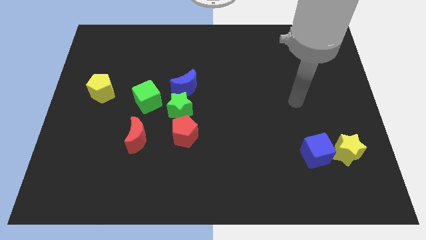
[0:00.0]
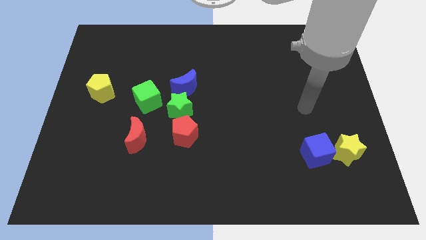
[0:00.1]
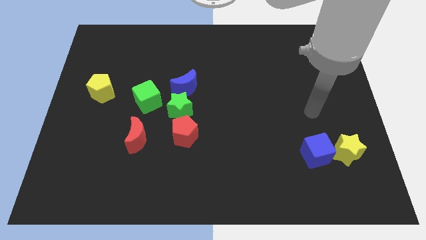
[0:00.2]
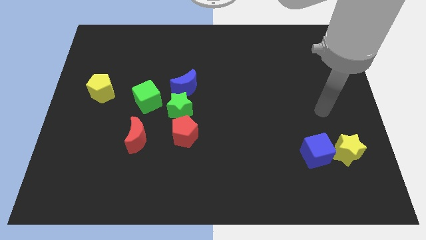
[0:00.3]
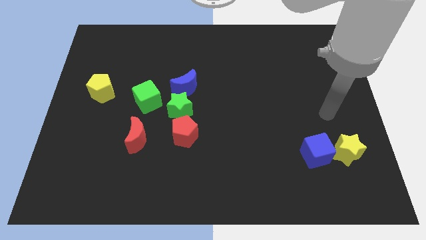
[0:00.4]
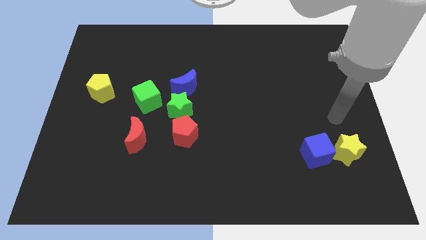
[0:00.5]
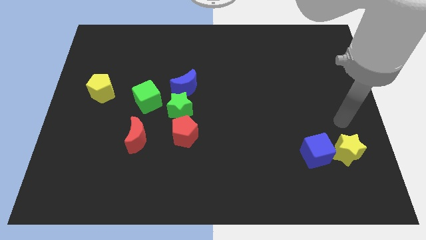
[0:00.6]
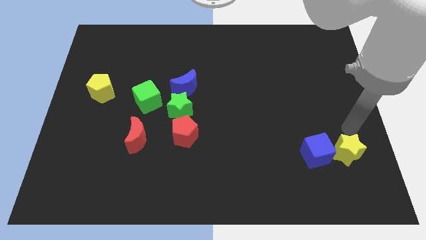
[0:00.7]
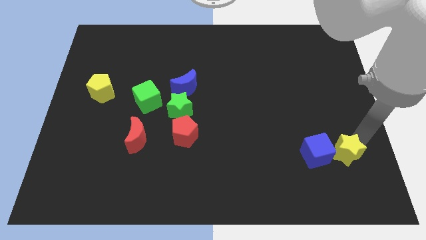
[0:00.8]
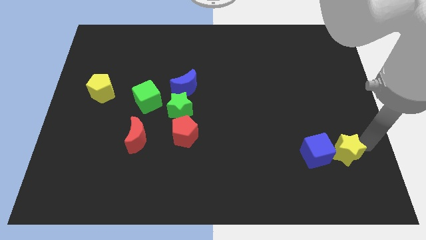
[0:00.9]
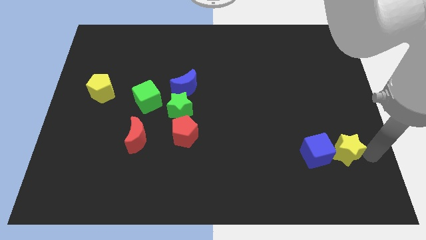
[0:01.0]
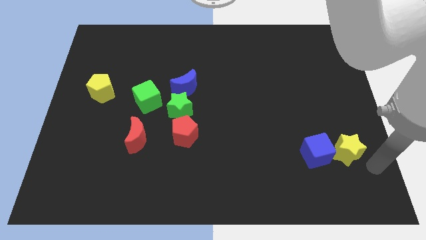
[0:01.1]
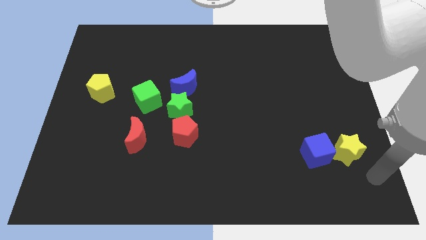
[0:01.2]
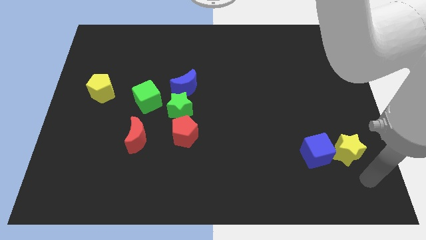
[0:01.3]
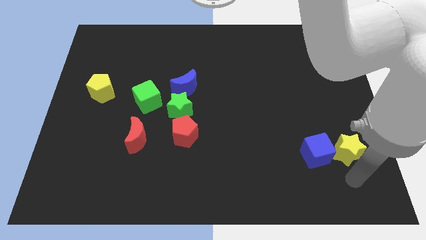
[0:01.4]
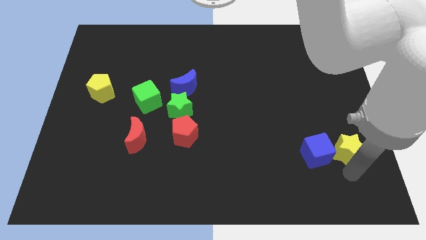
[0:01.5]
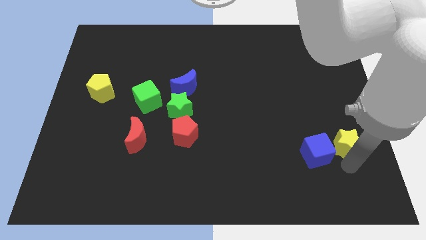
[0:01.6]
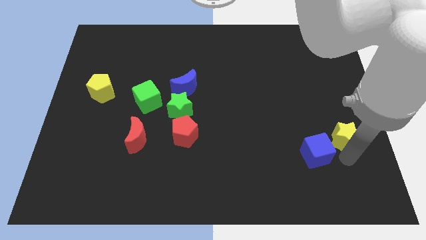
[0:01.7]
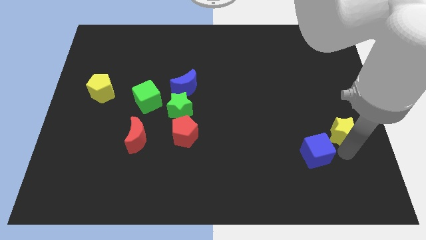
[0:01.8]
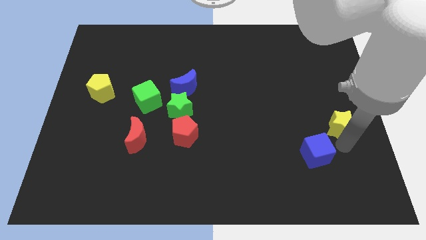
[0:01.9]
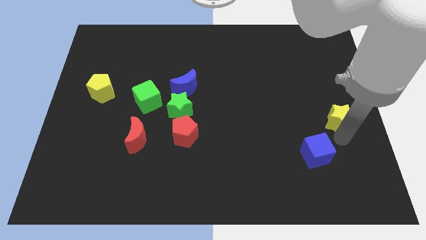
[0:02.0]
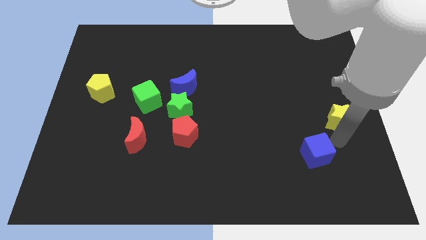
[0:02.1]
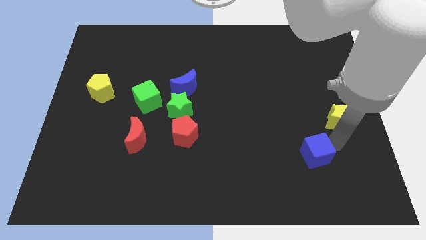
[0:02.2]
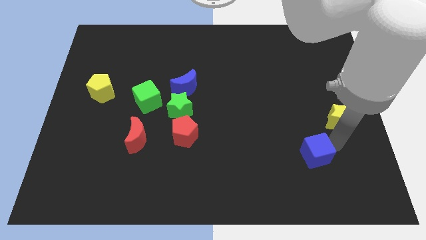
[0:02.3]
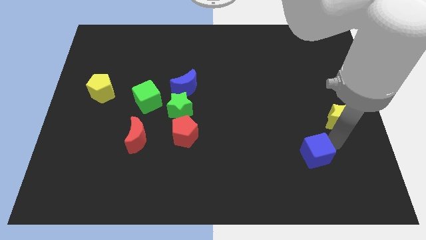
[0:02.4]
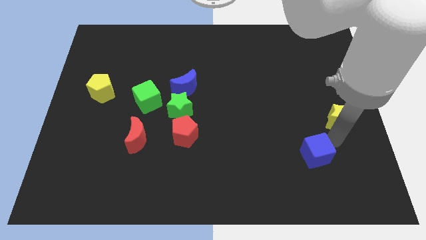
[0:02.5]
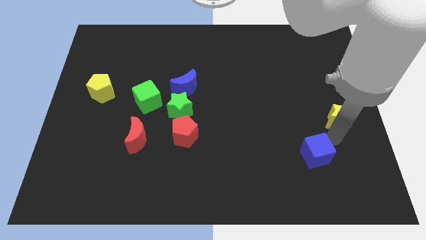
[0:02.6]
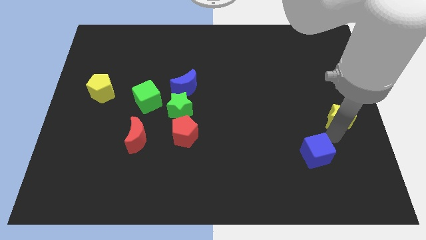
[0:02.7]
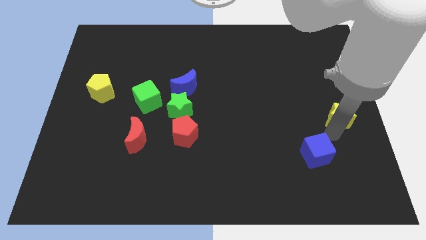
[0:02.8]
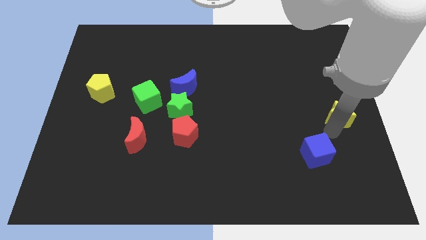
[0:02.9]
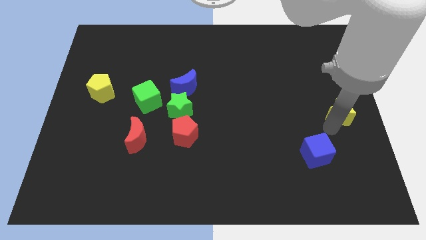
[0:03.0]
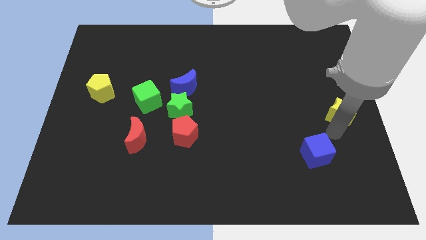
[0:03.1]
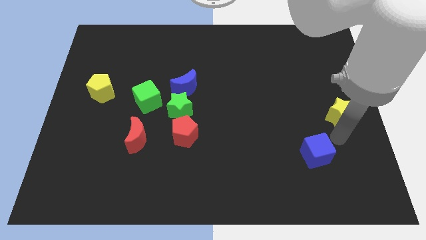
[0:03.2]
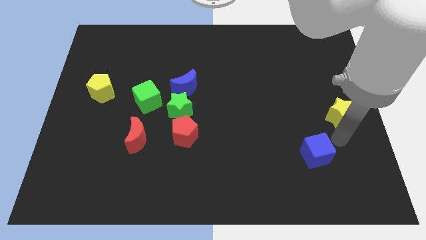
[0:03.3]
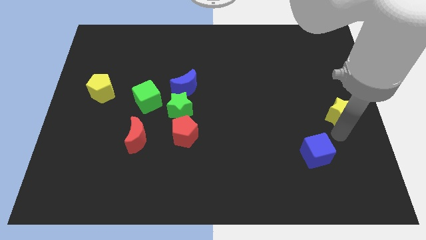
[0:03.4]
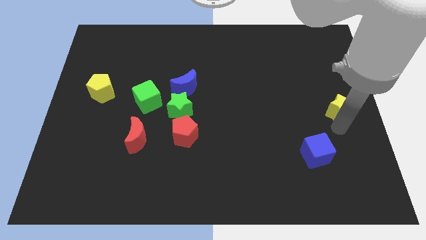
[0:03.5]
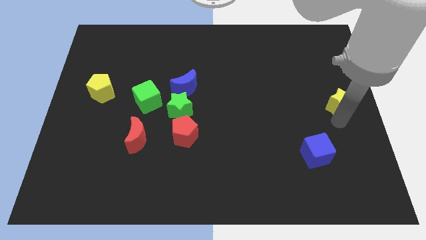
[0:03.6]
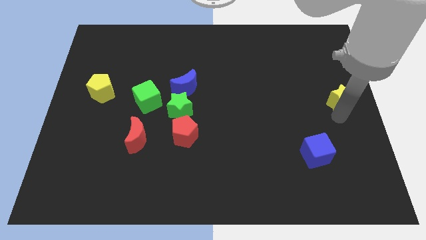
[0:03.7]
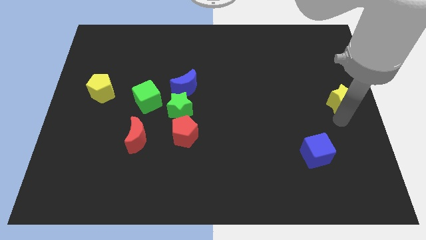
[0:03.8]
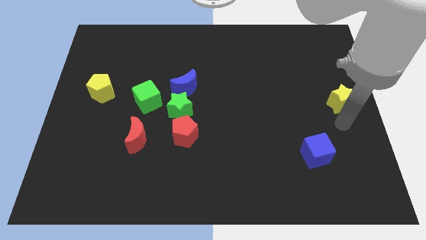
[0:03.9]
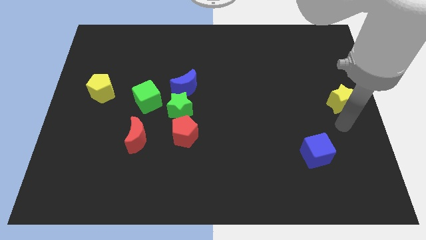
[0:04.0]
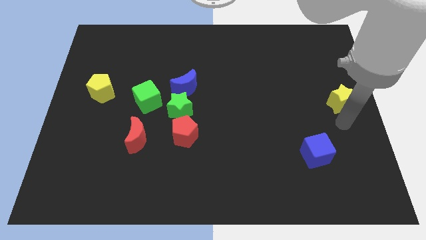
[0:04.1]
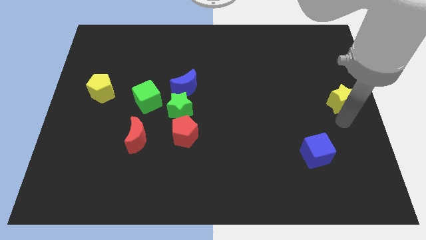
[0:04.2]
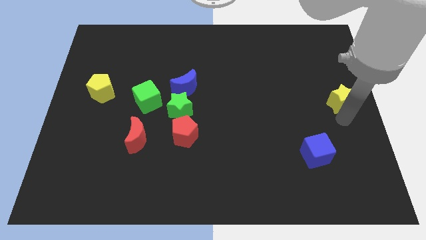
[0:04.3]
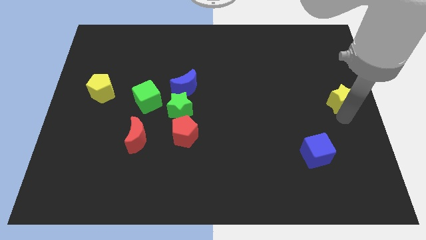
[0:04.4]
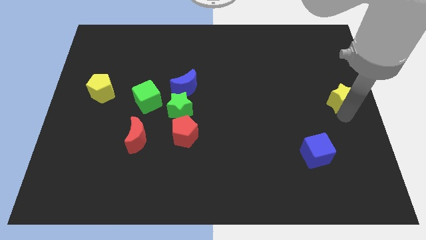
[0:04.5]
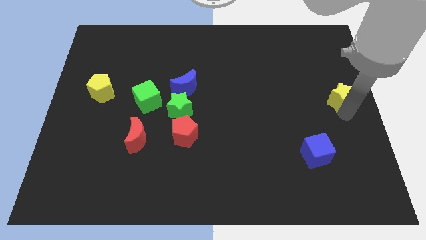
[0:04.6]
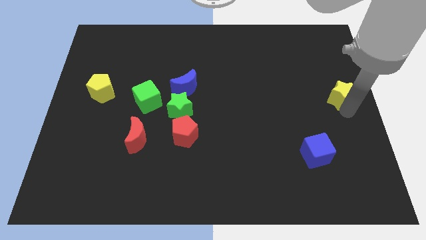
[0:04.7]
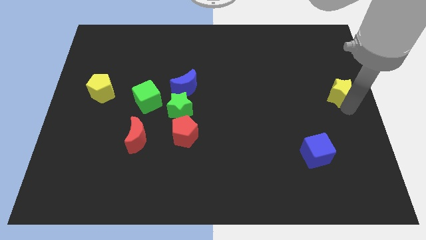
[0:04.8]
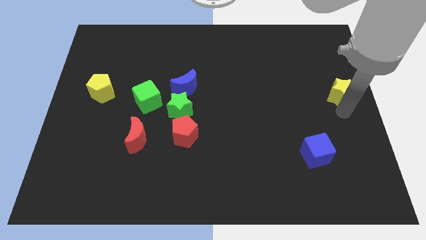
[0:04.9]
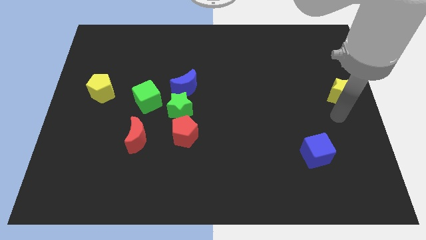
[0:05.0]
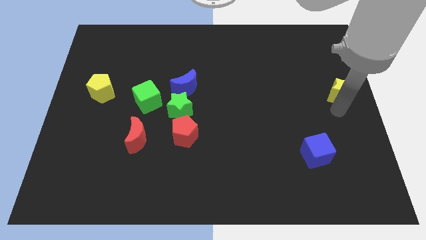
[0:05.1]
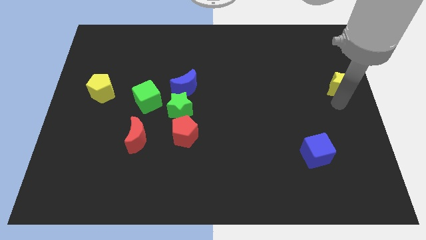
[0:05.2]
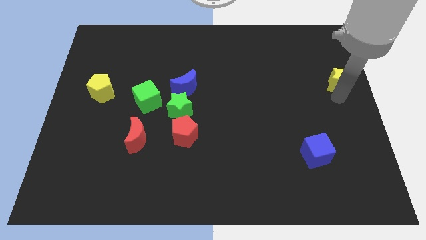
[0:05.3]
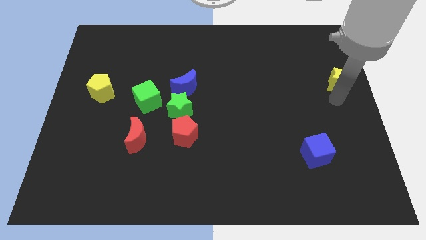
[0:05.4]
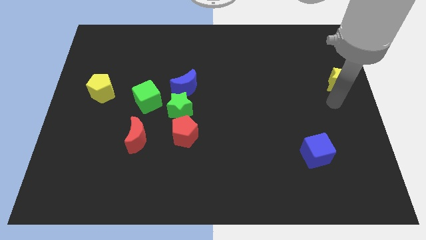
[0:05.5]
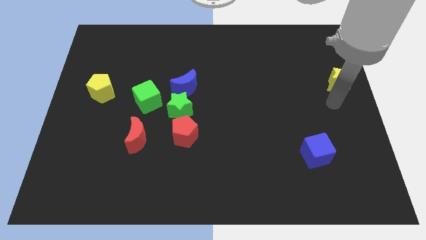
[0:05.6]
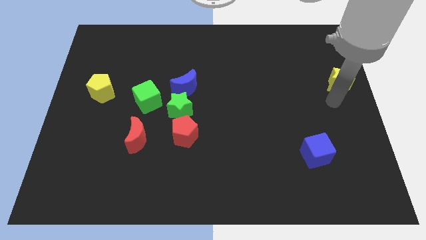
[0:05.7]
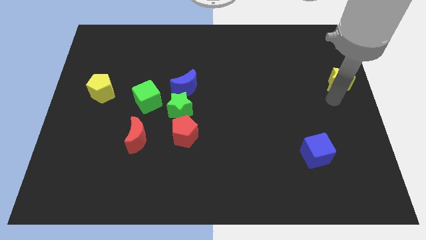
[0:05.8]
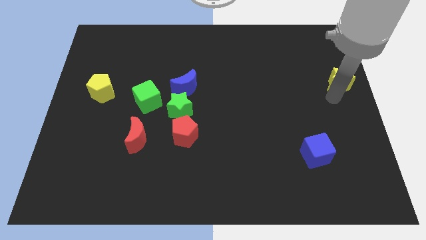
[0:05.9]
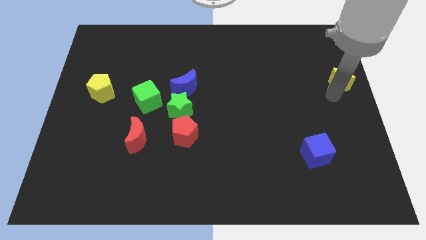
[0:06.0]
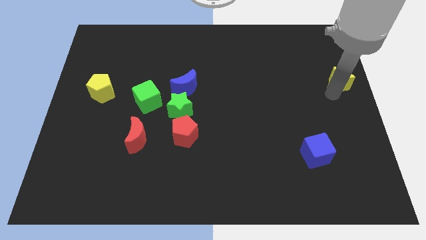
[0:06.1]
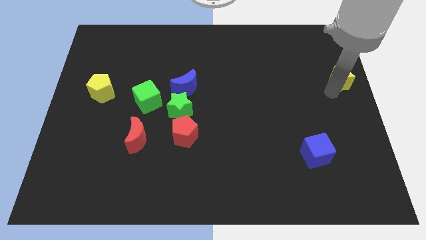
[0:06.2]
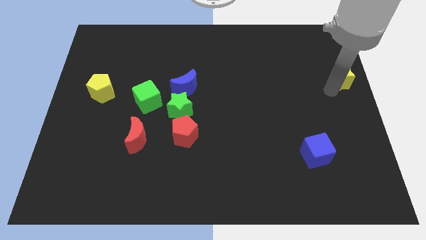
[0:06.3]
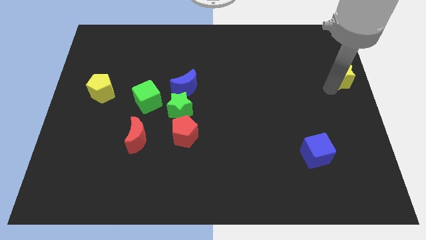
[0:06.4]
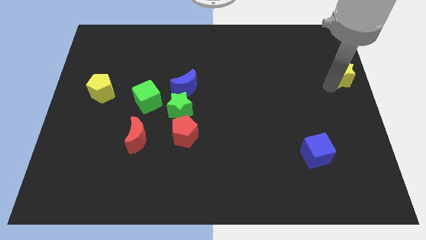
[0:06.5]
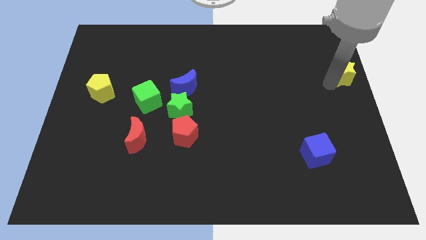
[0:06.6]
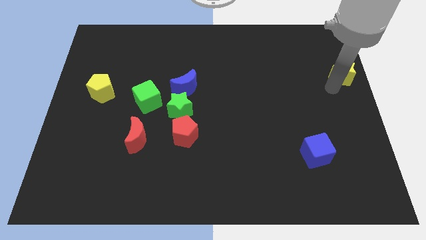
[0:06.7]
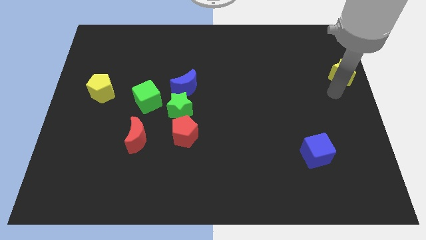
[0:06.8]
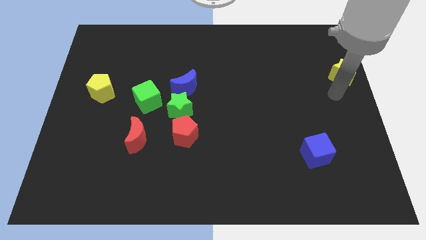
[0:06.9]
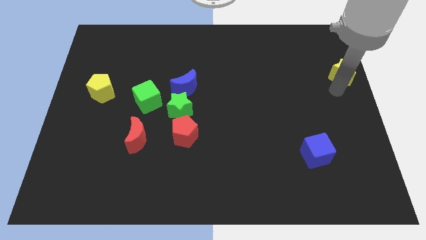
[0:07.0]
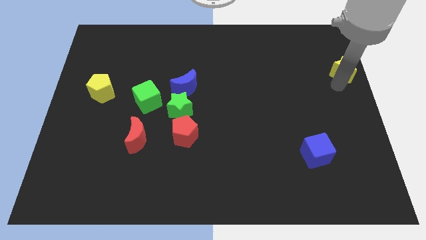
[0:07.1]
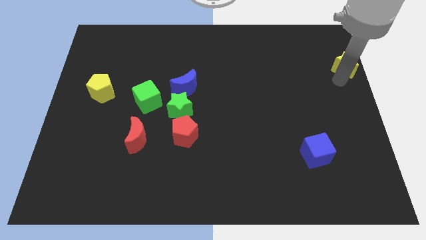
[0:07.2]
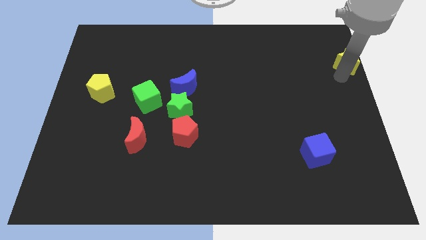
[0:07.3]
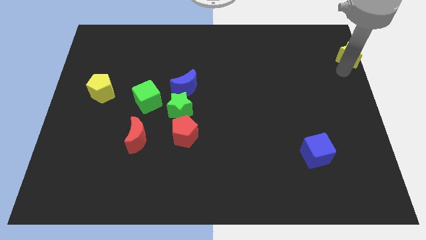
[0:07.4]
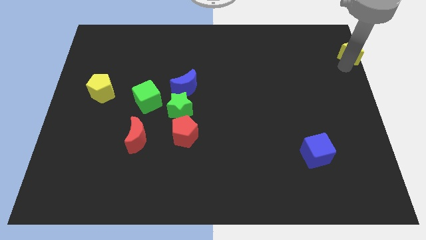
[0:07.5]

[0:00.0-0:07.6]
move the yellow star to the upper right corner

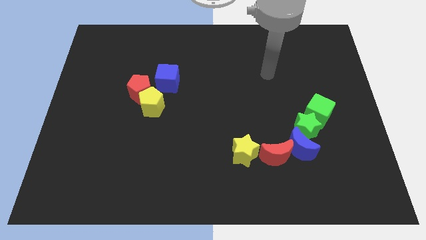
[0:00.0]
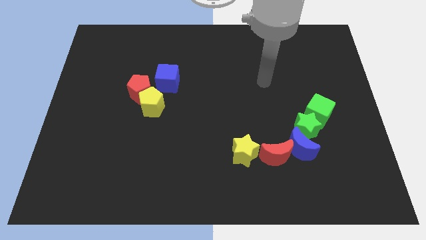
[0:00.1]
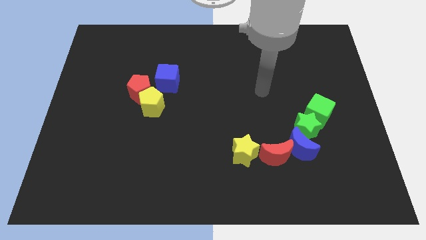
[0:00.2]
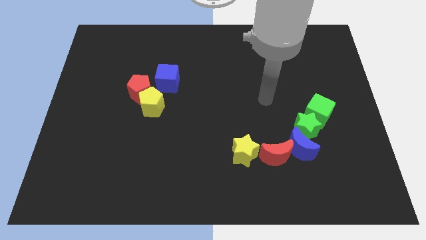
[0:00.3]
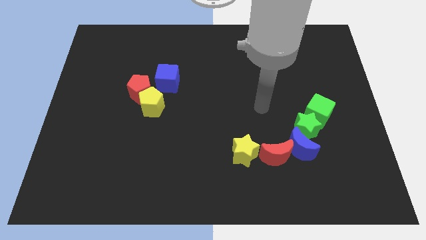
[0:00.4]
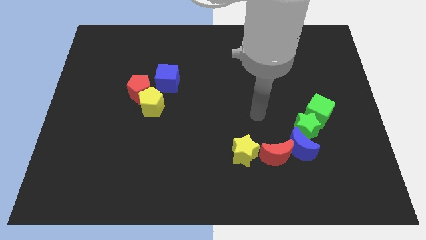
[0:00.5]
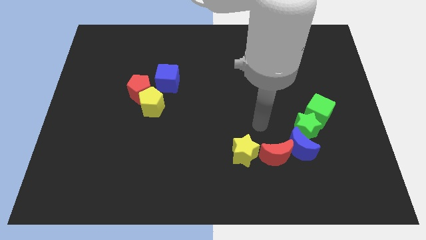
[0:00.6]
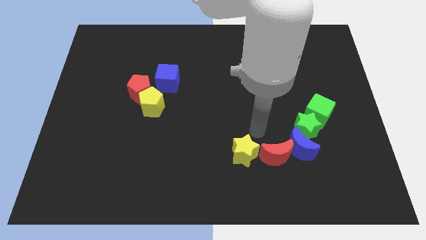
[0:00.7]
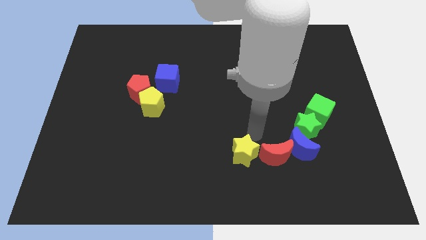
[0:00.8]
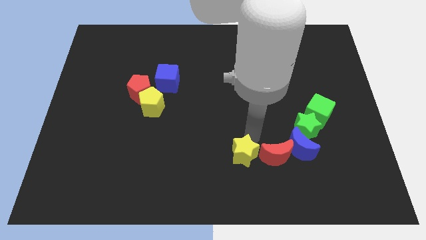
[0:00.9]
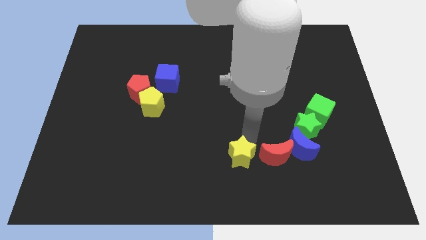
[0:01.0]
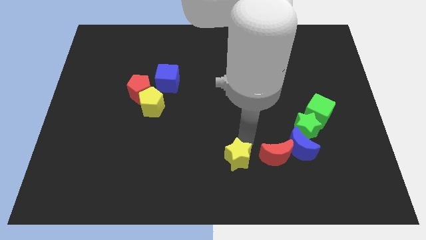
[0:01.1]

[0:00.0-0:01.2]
put the yellow star to the bottom side
